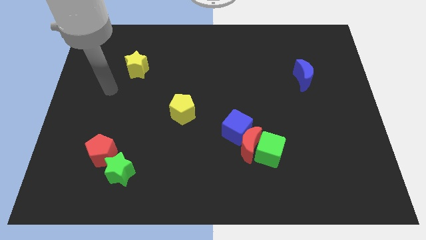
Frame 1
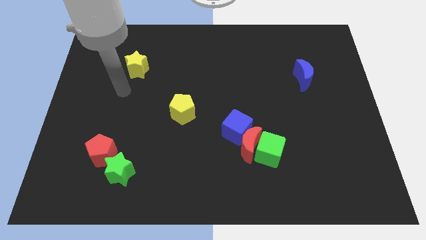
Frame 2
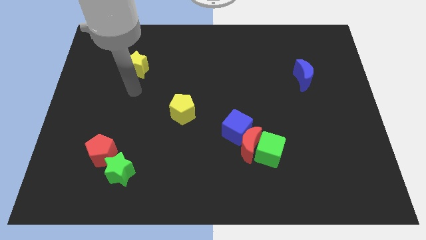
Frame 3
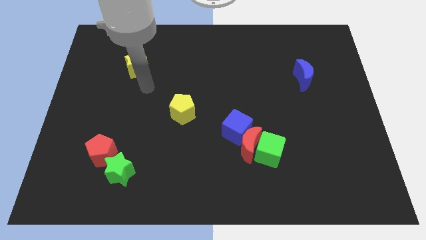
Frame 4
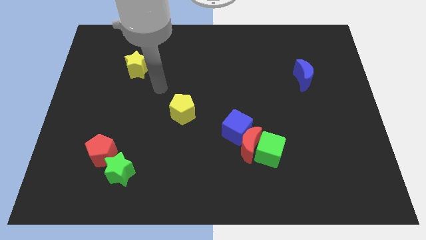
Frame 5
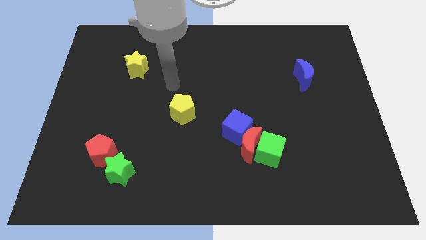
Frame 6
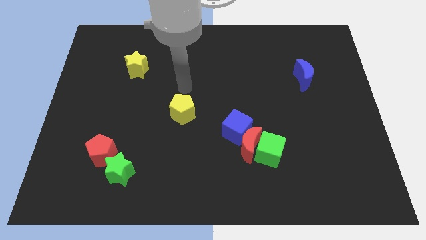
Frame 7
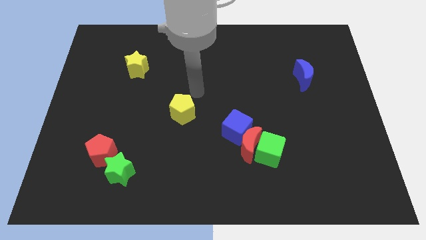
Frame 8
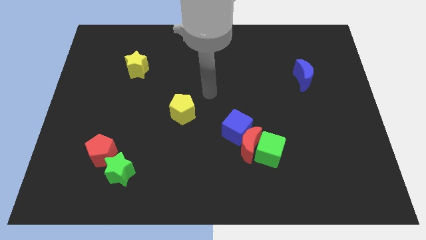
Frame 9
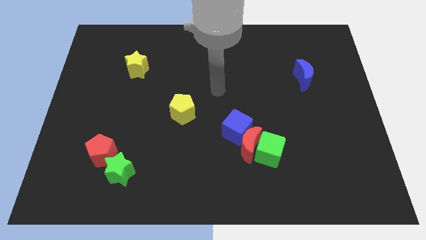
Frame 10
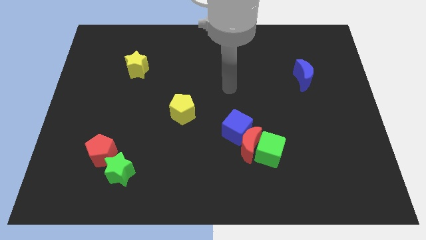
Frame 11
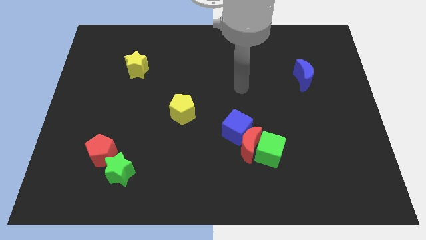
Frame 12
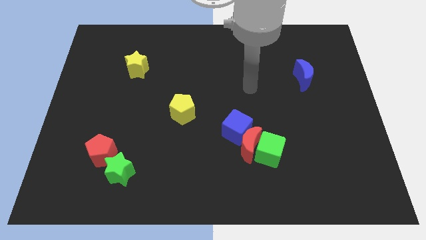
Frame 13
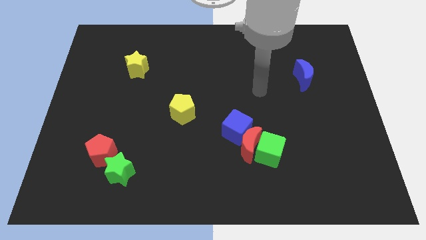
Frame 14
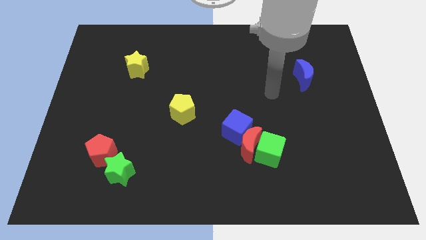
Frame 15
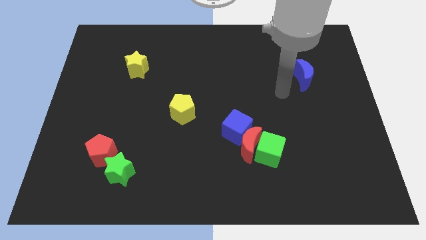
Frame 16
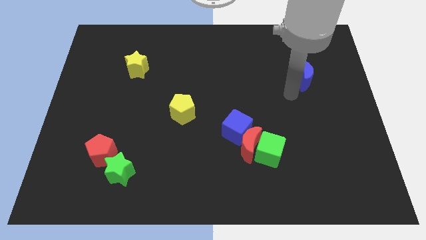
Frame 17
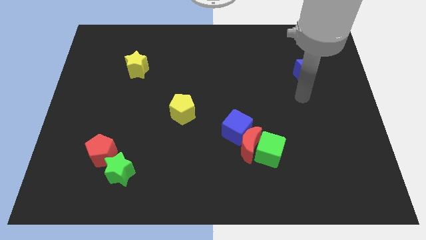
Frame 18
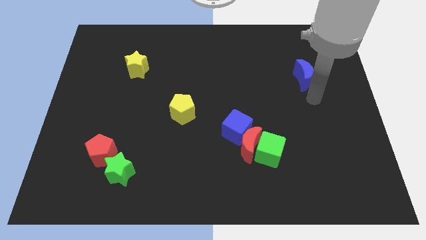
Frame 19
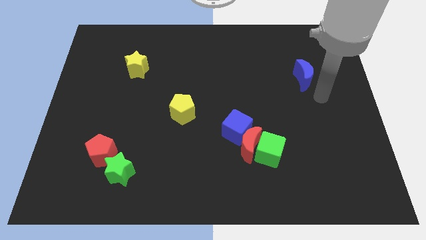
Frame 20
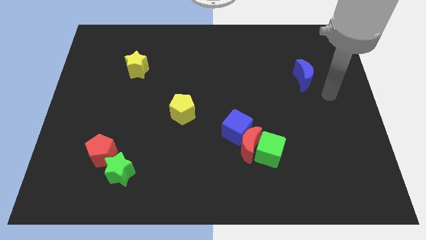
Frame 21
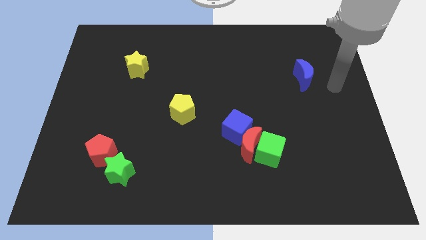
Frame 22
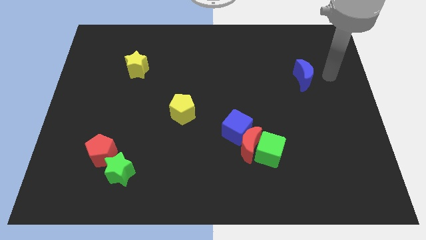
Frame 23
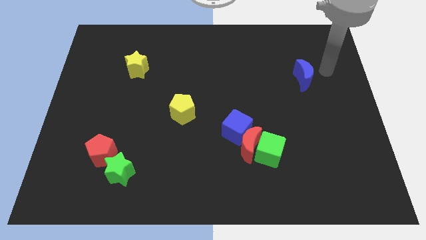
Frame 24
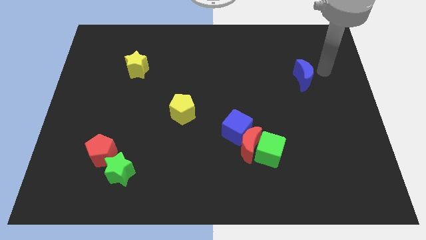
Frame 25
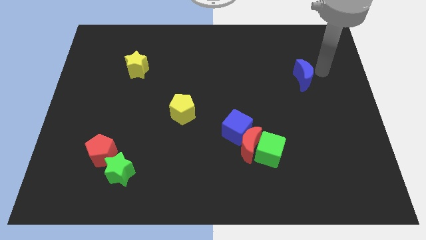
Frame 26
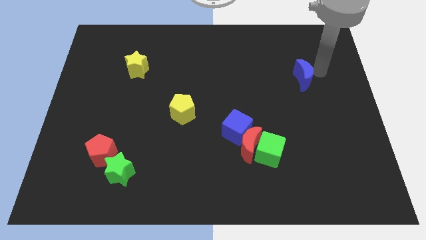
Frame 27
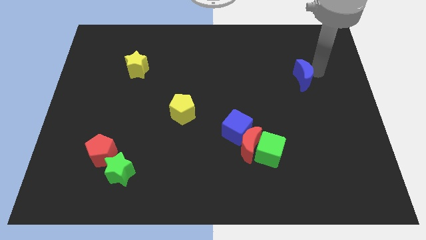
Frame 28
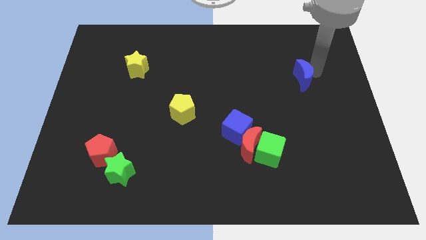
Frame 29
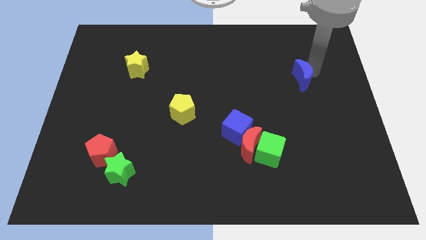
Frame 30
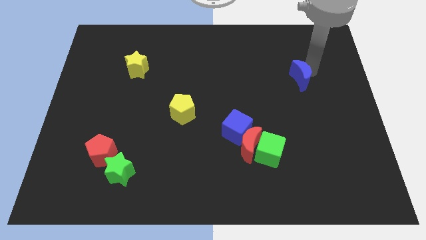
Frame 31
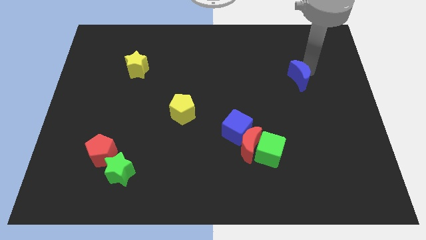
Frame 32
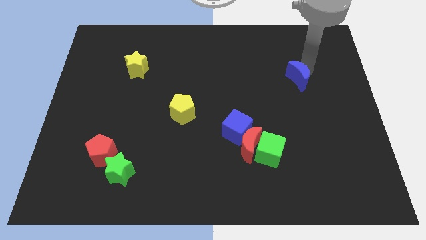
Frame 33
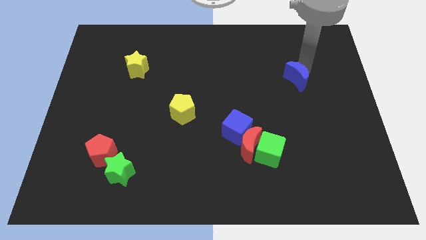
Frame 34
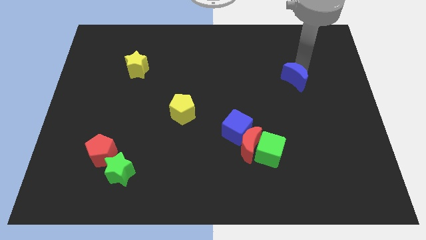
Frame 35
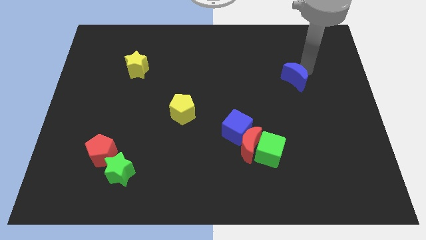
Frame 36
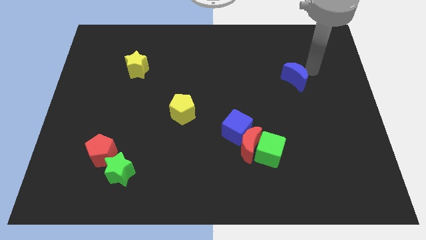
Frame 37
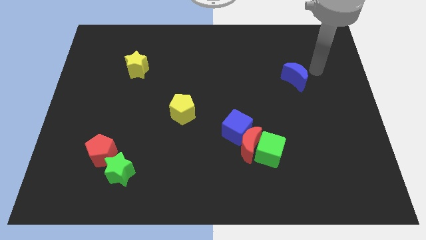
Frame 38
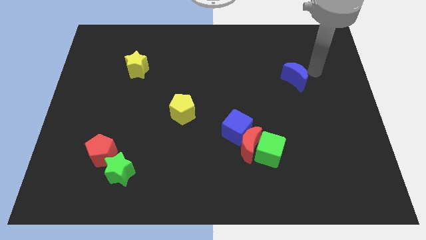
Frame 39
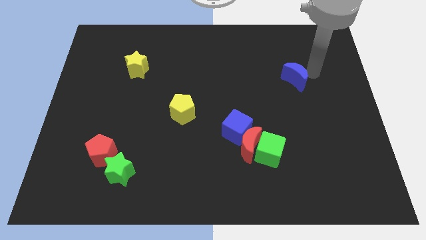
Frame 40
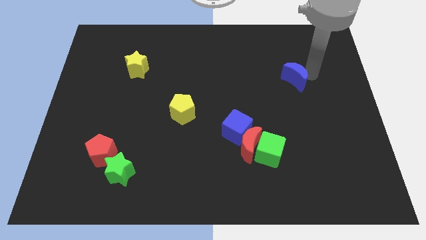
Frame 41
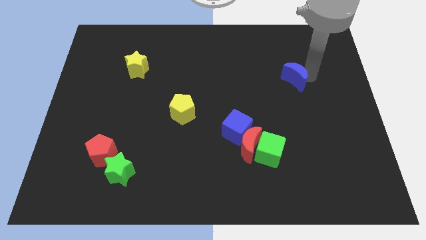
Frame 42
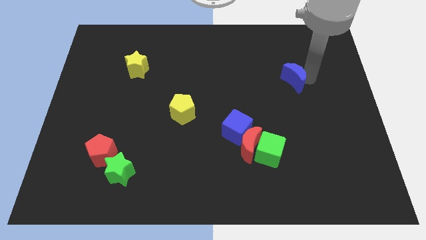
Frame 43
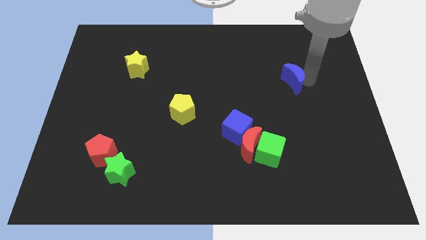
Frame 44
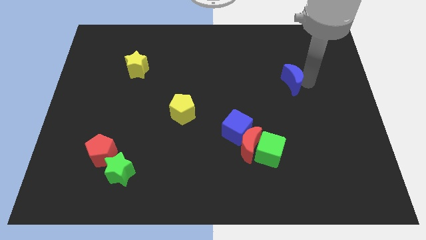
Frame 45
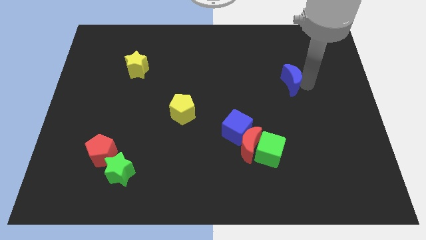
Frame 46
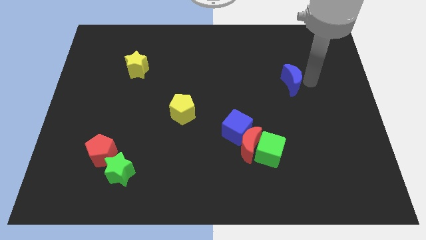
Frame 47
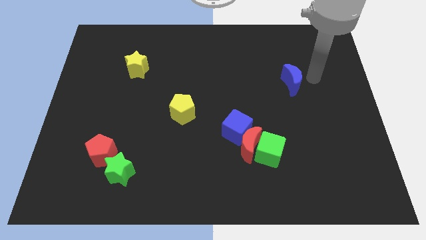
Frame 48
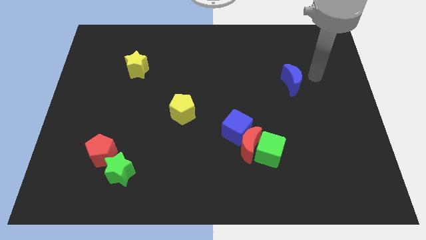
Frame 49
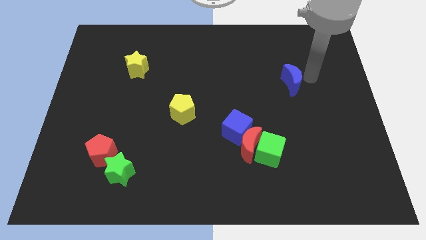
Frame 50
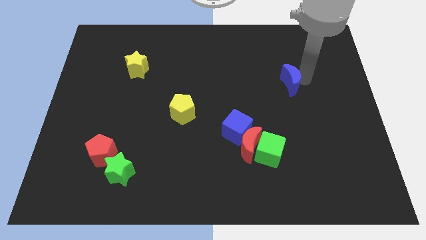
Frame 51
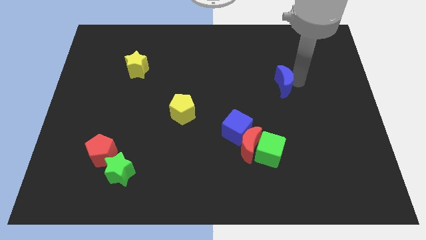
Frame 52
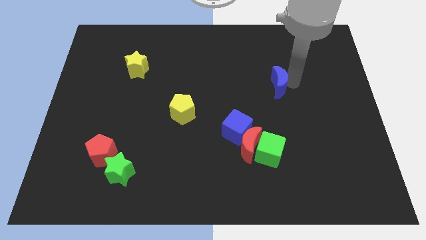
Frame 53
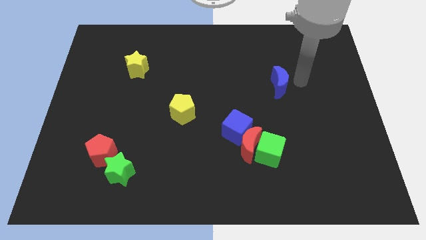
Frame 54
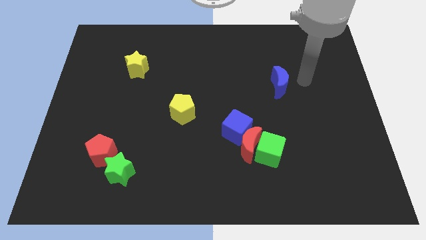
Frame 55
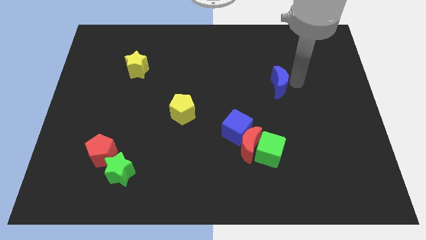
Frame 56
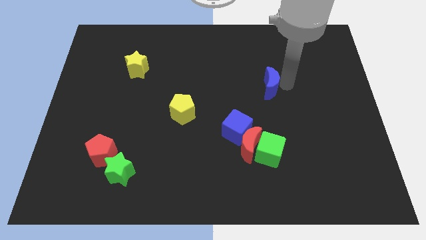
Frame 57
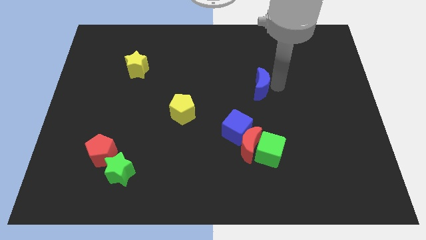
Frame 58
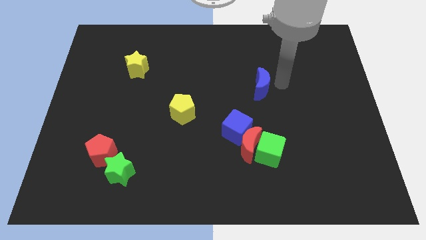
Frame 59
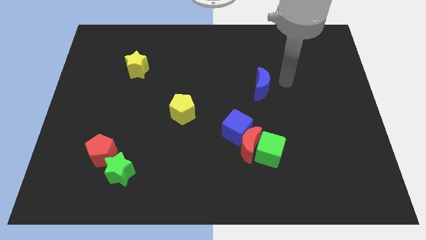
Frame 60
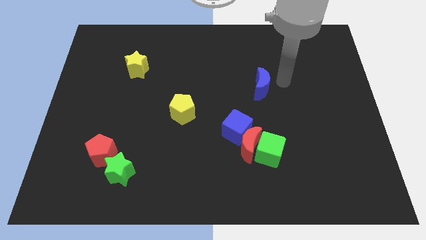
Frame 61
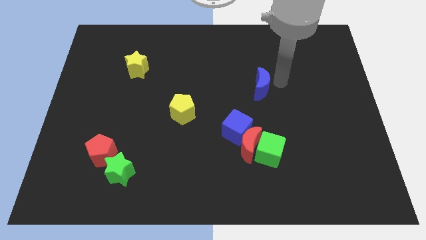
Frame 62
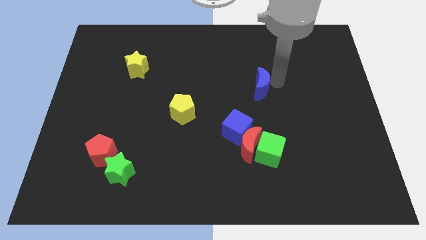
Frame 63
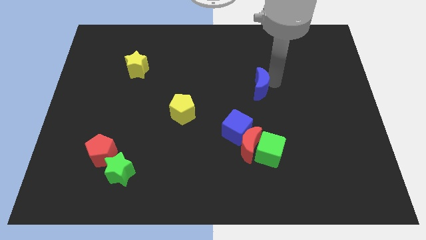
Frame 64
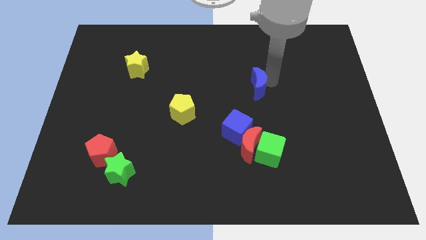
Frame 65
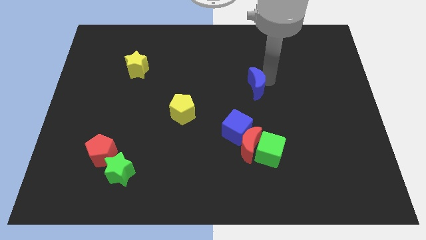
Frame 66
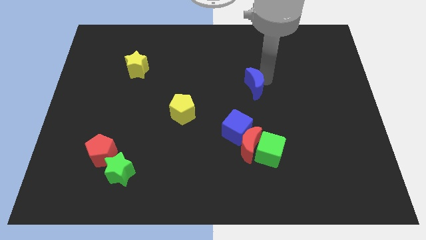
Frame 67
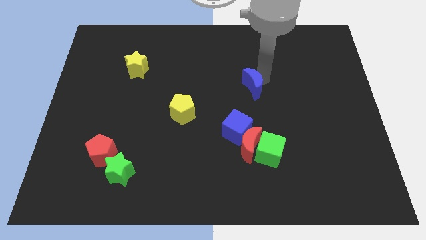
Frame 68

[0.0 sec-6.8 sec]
push the blue moon to the top side of the blue cube
